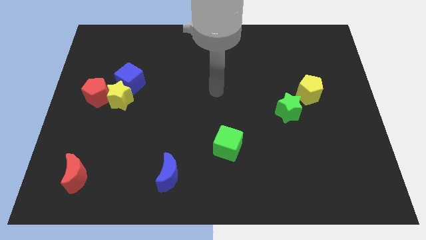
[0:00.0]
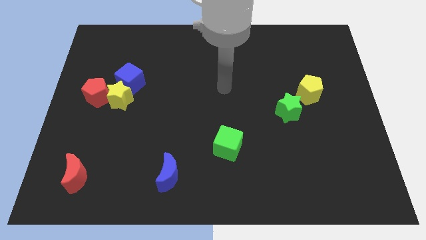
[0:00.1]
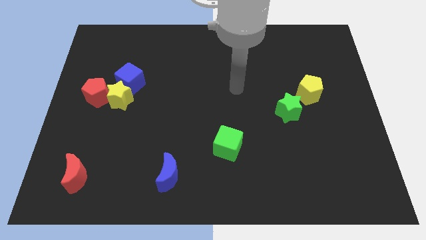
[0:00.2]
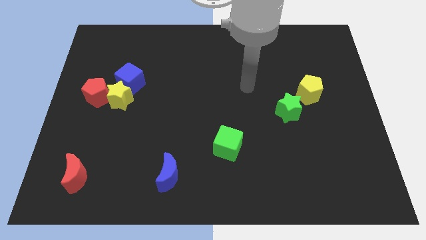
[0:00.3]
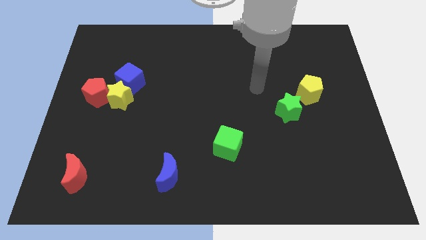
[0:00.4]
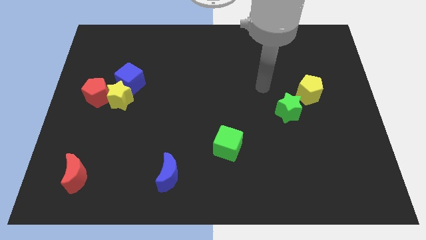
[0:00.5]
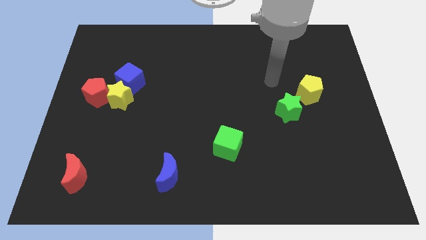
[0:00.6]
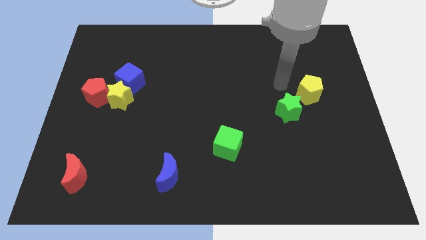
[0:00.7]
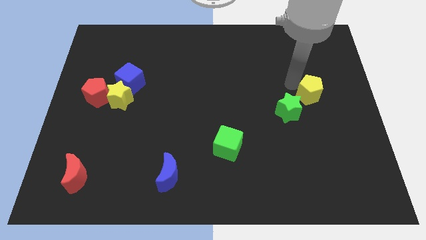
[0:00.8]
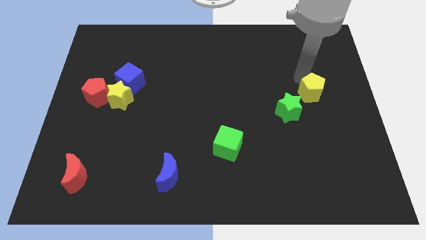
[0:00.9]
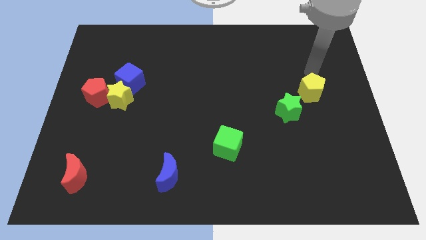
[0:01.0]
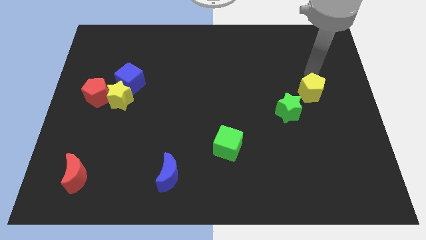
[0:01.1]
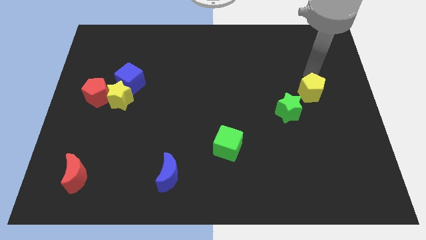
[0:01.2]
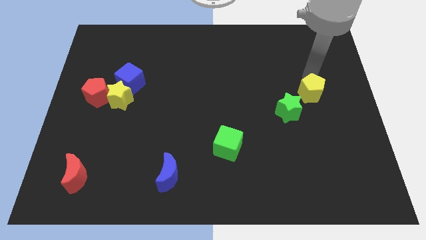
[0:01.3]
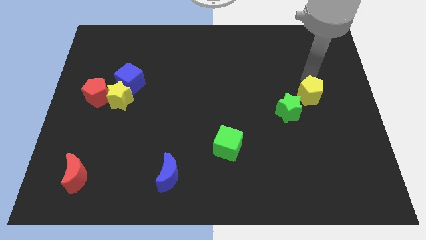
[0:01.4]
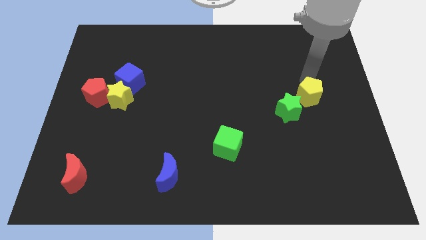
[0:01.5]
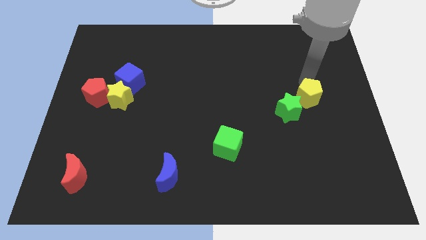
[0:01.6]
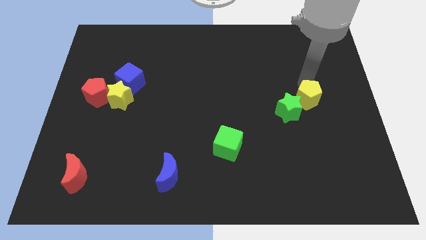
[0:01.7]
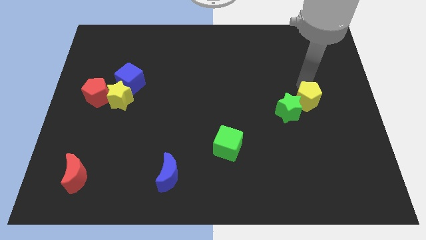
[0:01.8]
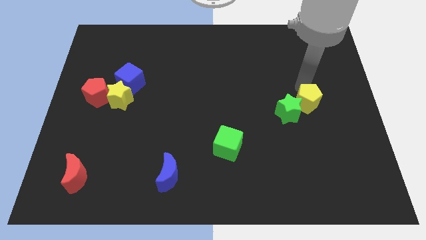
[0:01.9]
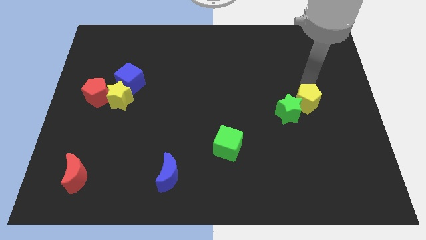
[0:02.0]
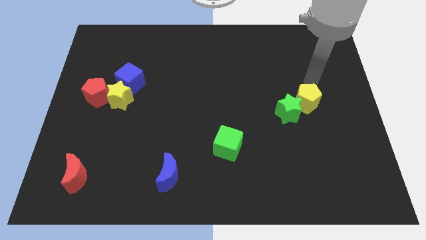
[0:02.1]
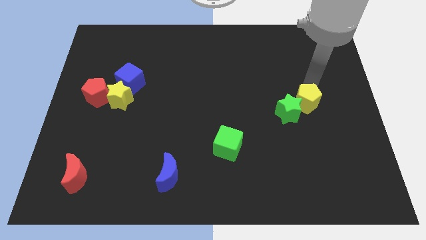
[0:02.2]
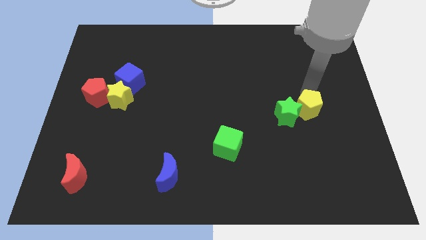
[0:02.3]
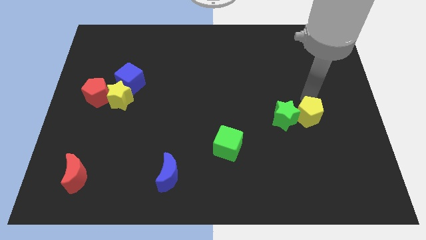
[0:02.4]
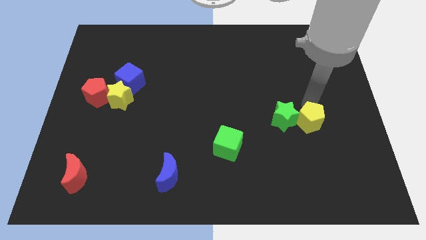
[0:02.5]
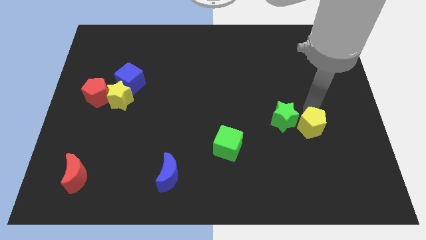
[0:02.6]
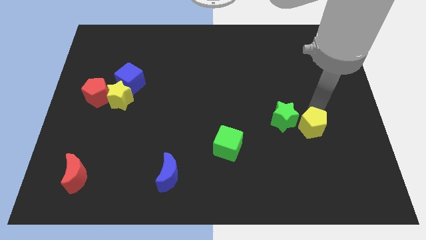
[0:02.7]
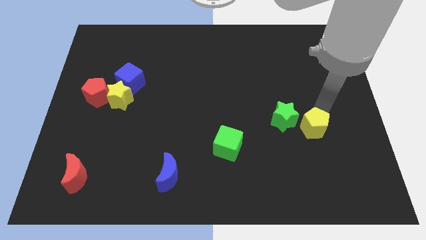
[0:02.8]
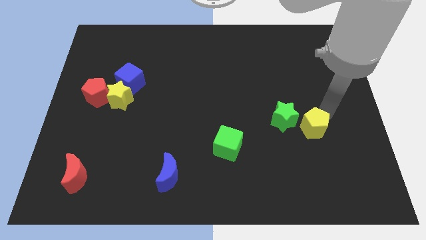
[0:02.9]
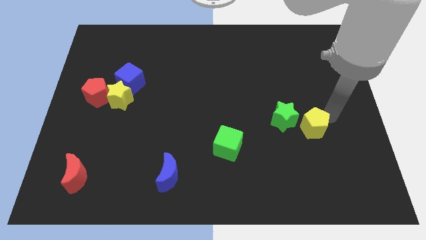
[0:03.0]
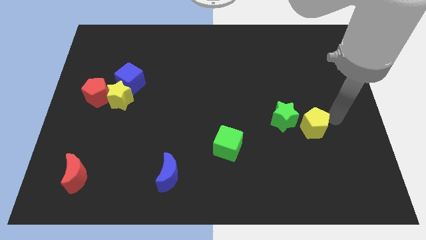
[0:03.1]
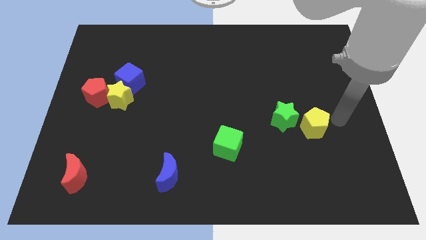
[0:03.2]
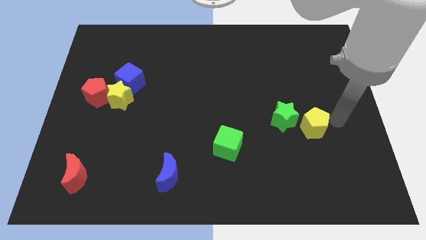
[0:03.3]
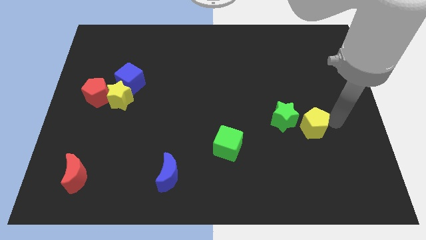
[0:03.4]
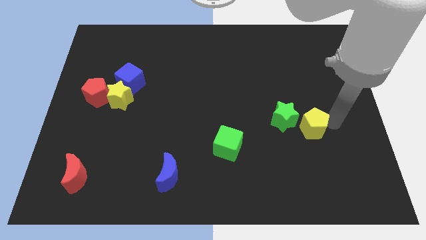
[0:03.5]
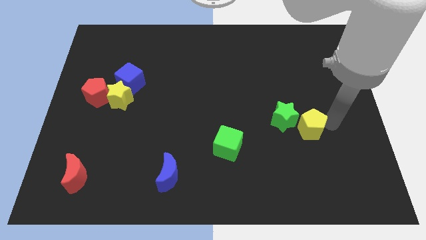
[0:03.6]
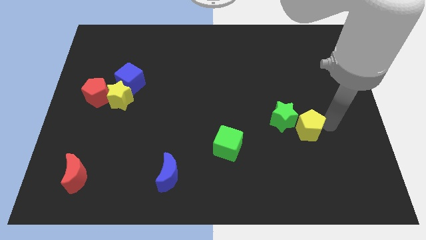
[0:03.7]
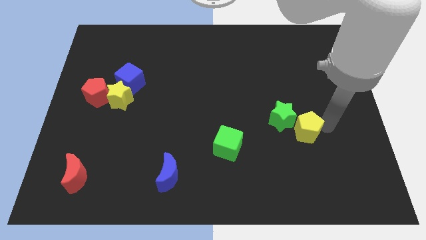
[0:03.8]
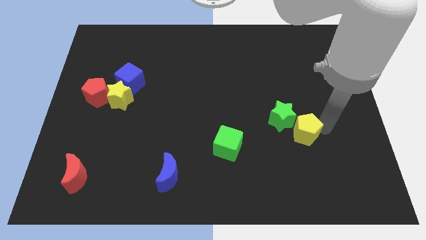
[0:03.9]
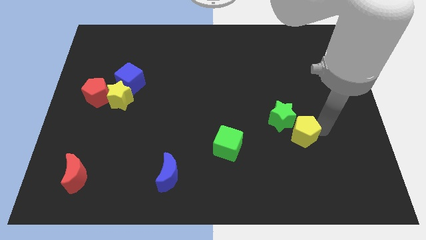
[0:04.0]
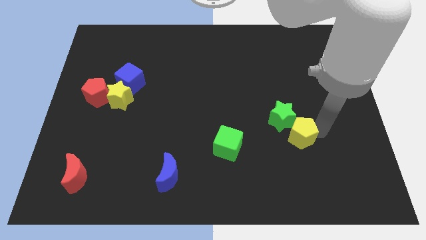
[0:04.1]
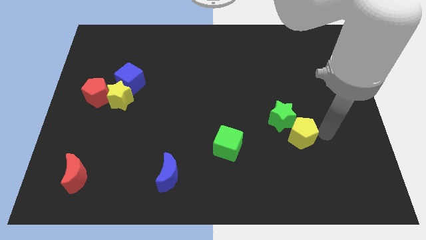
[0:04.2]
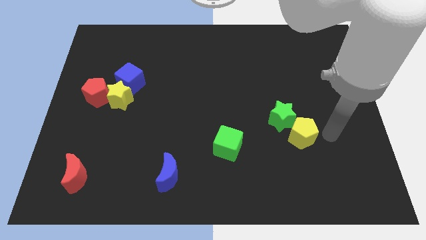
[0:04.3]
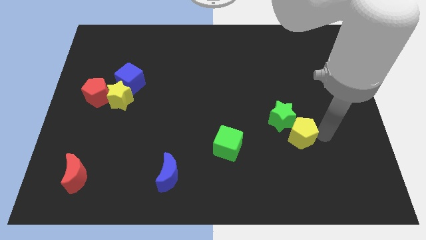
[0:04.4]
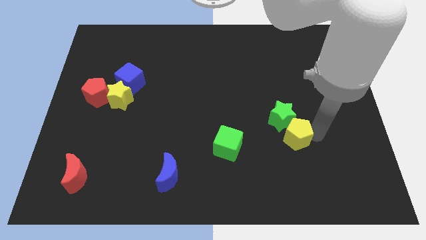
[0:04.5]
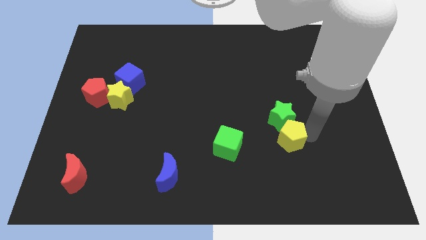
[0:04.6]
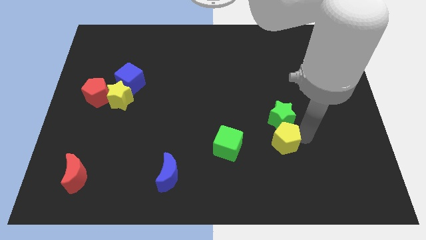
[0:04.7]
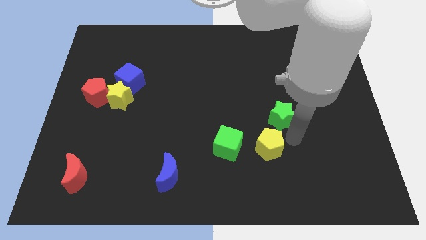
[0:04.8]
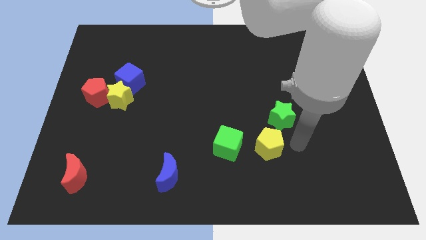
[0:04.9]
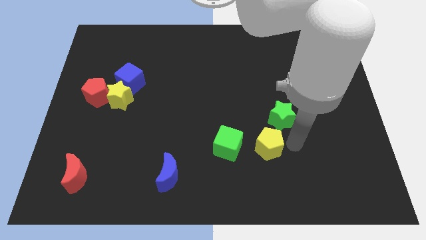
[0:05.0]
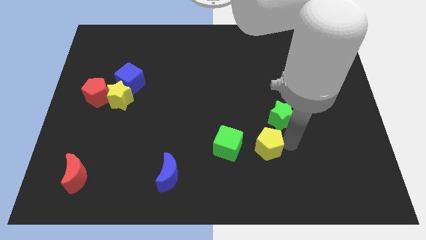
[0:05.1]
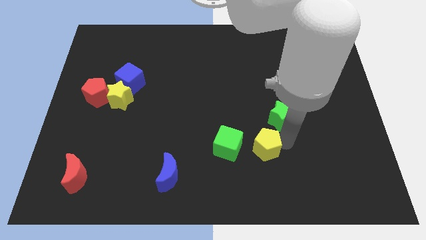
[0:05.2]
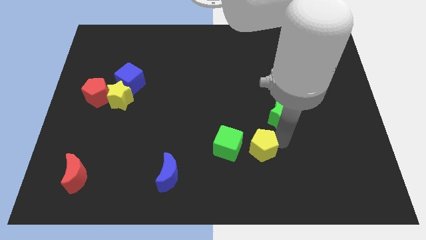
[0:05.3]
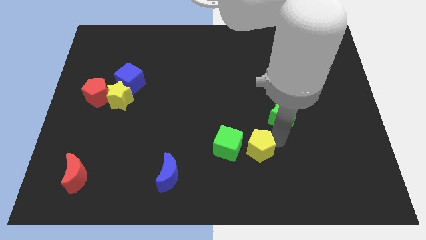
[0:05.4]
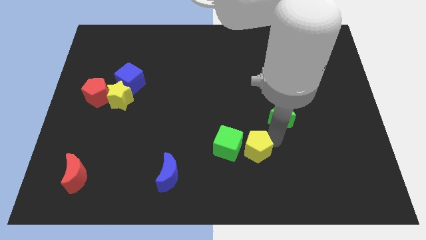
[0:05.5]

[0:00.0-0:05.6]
put the yellow pentagon next to the green cube

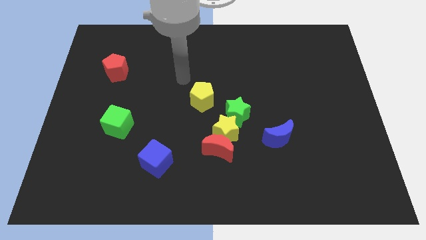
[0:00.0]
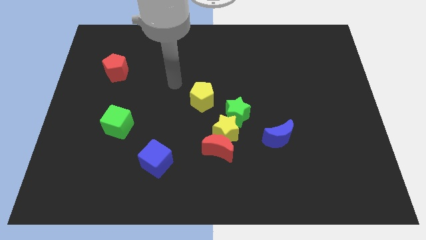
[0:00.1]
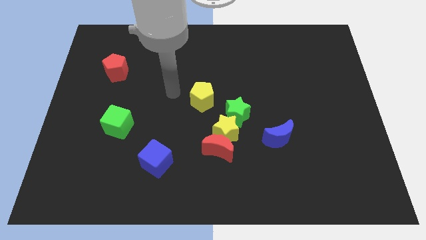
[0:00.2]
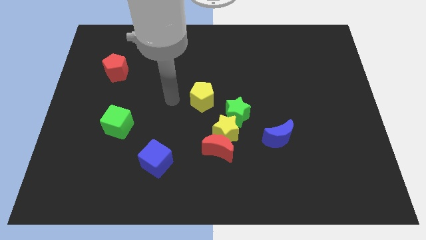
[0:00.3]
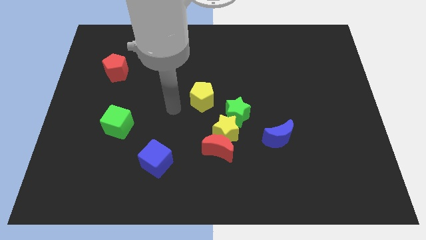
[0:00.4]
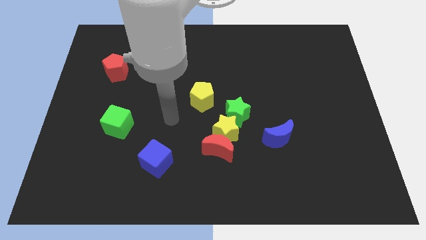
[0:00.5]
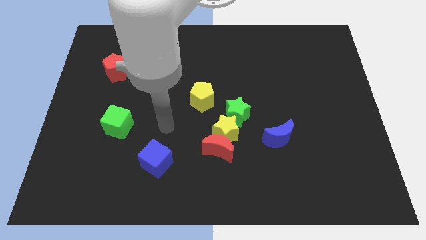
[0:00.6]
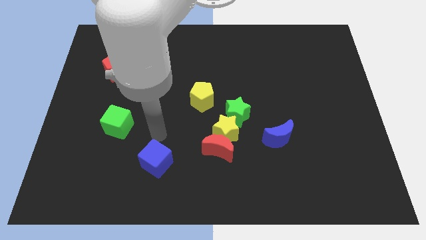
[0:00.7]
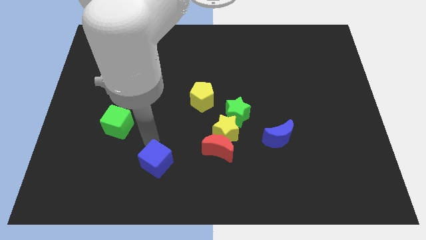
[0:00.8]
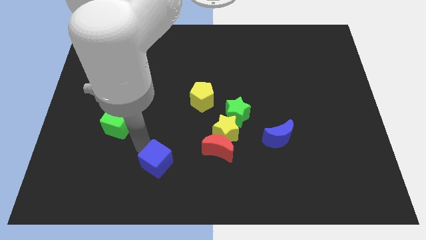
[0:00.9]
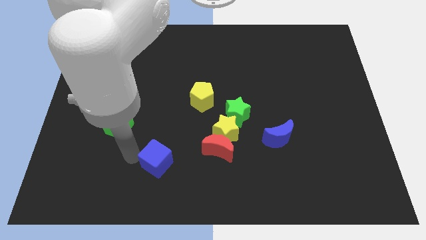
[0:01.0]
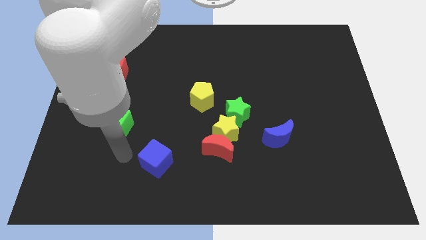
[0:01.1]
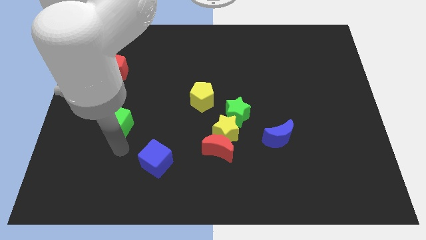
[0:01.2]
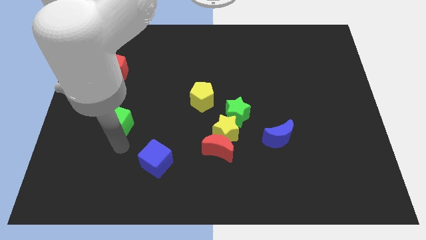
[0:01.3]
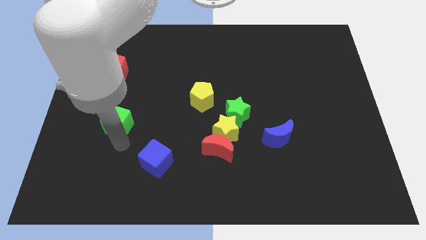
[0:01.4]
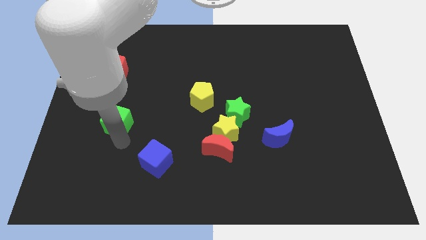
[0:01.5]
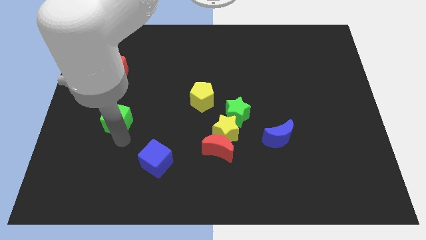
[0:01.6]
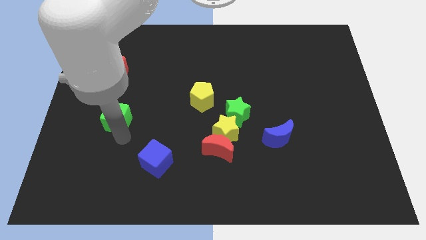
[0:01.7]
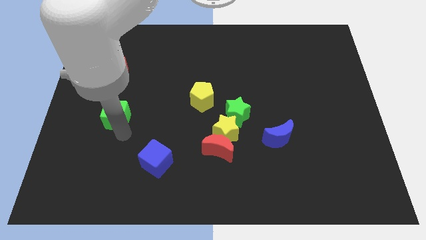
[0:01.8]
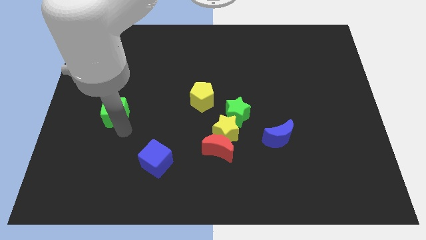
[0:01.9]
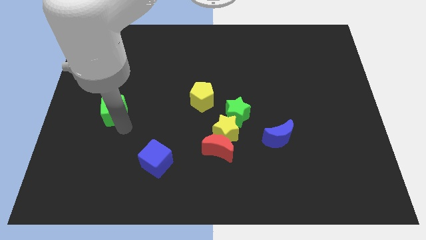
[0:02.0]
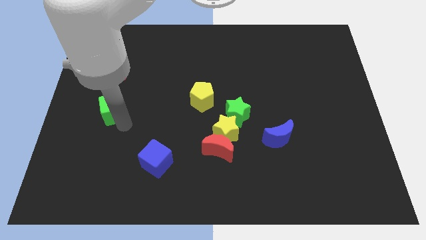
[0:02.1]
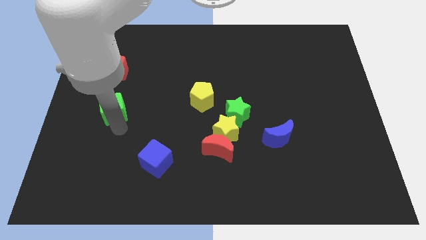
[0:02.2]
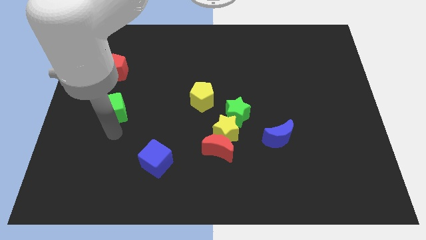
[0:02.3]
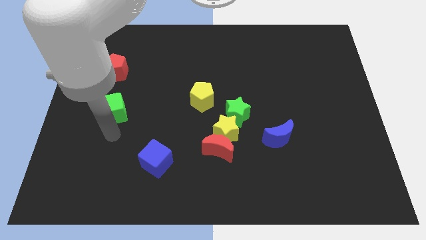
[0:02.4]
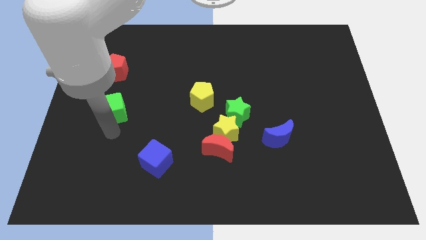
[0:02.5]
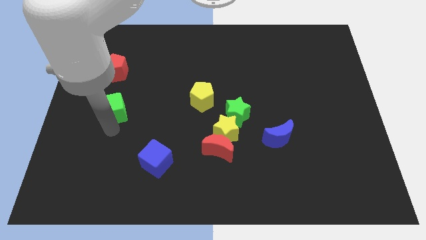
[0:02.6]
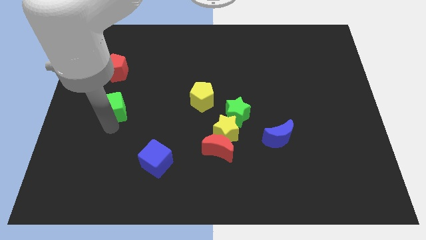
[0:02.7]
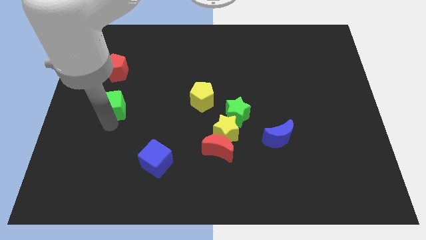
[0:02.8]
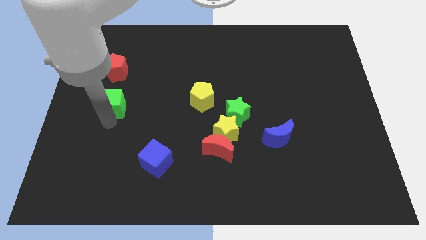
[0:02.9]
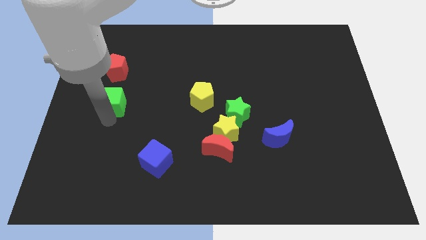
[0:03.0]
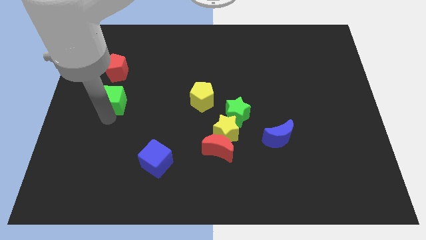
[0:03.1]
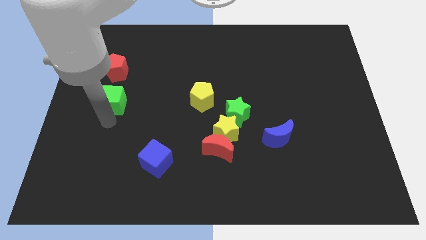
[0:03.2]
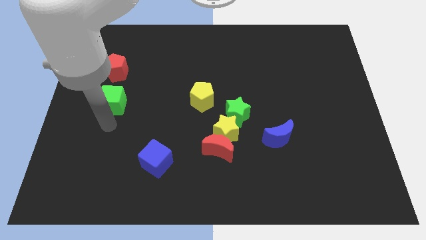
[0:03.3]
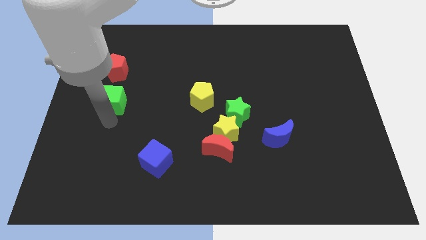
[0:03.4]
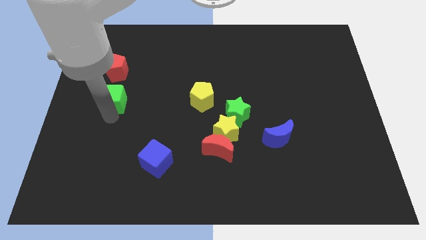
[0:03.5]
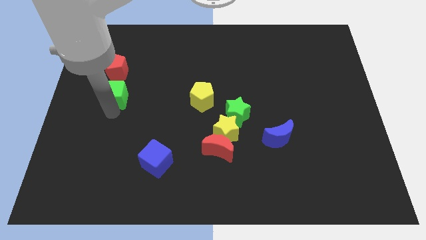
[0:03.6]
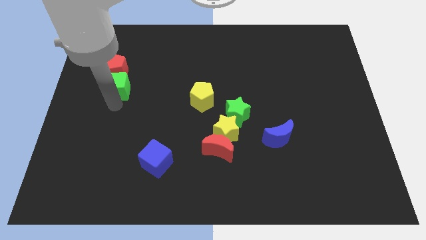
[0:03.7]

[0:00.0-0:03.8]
push the green cube to the red pentagon
